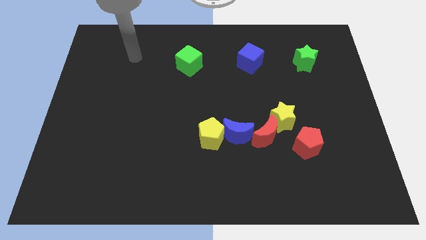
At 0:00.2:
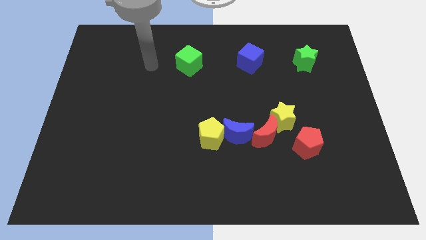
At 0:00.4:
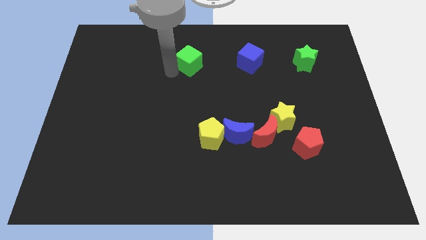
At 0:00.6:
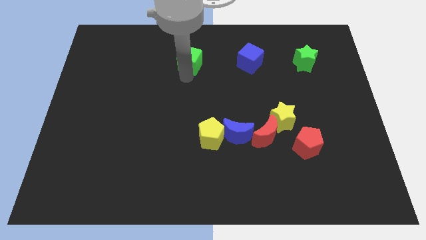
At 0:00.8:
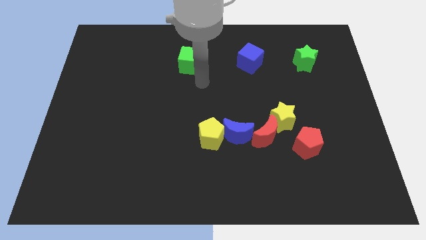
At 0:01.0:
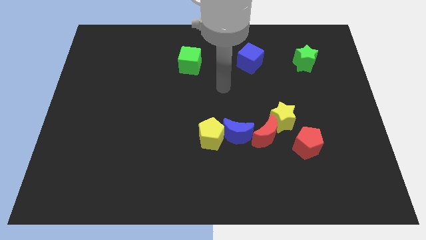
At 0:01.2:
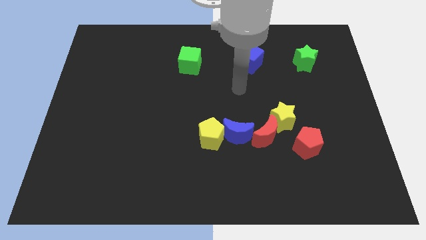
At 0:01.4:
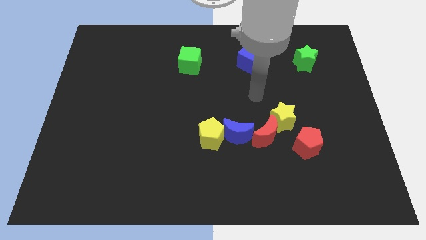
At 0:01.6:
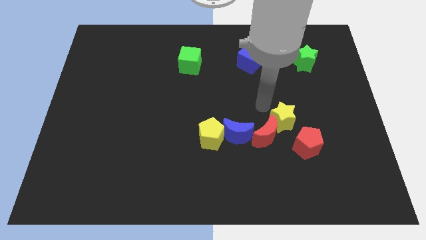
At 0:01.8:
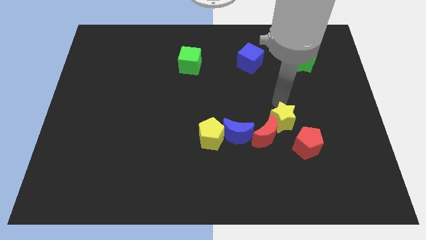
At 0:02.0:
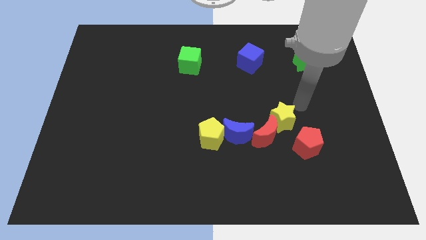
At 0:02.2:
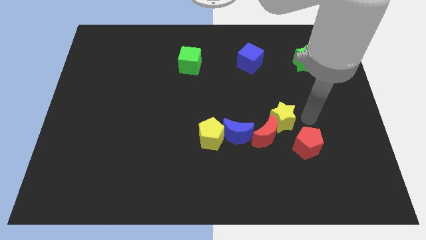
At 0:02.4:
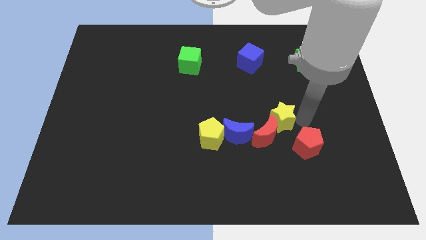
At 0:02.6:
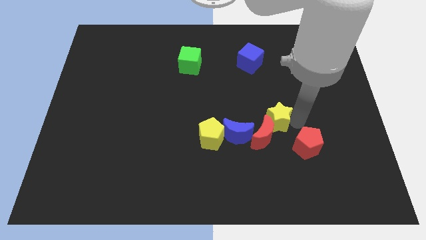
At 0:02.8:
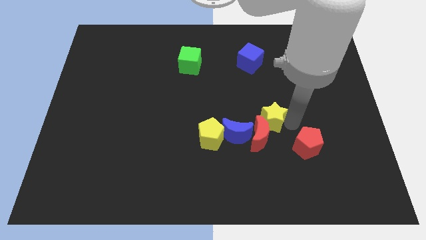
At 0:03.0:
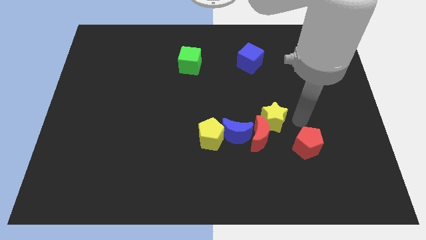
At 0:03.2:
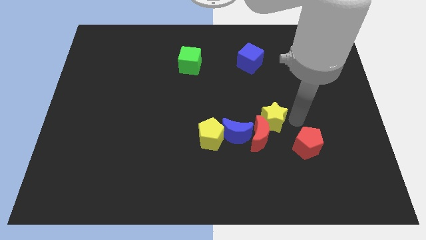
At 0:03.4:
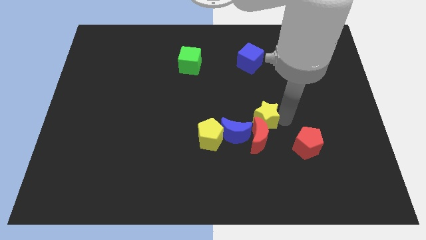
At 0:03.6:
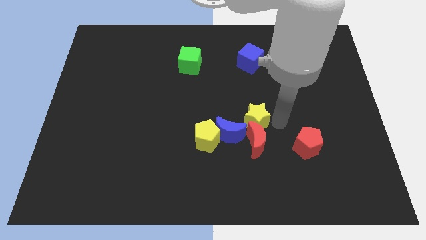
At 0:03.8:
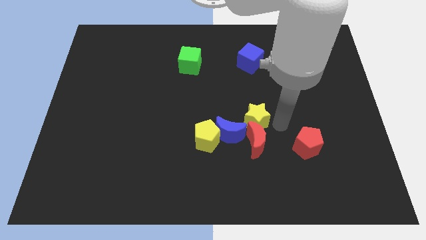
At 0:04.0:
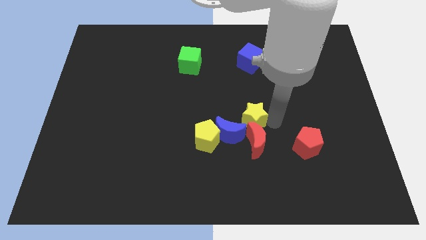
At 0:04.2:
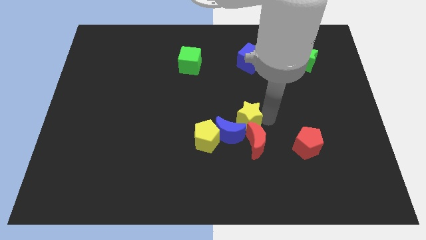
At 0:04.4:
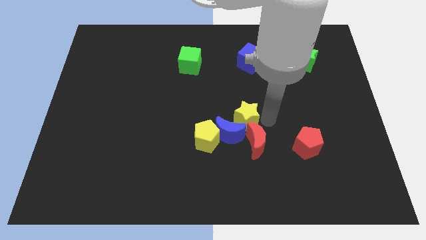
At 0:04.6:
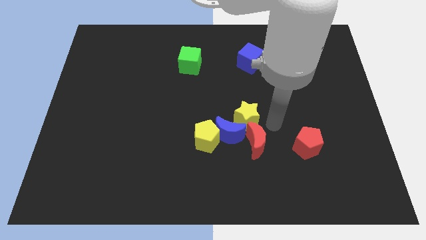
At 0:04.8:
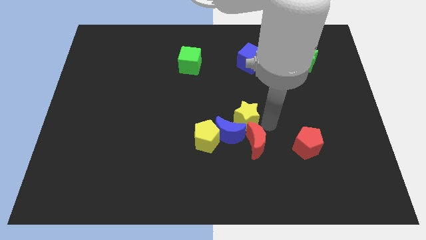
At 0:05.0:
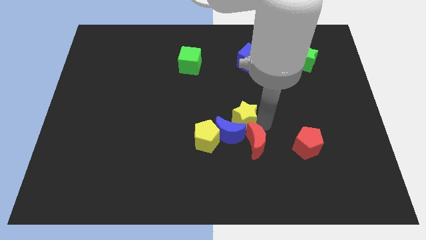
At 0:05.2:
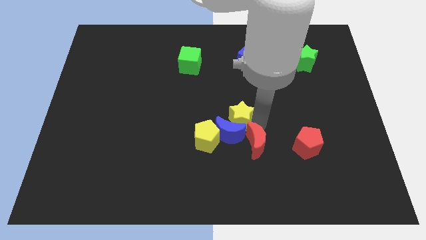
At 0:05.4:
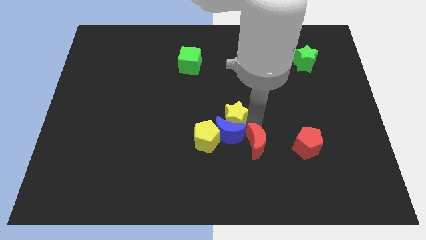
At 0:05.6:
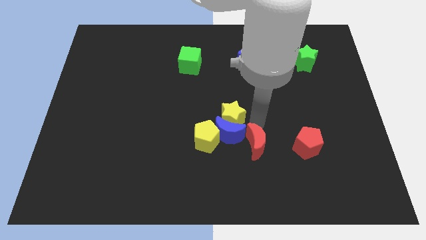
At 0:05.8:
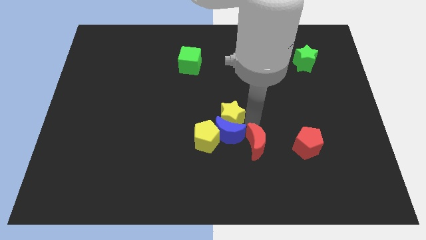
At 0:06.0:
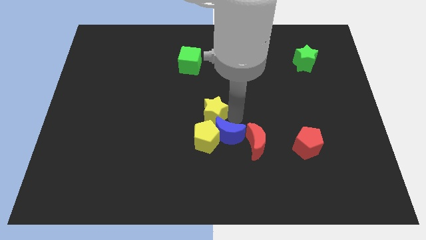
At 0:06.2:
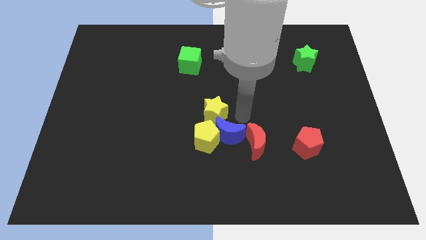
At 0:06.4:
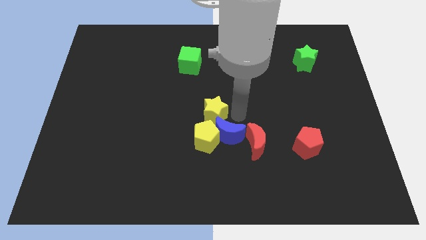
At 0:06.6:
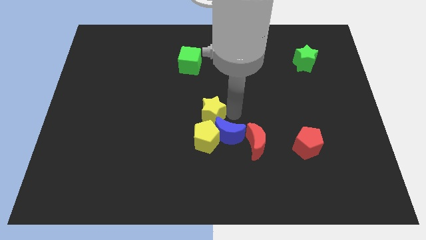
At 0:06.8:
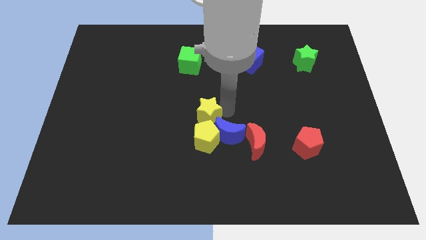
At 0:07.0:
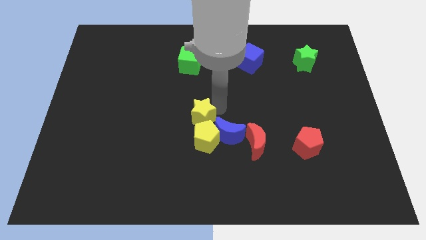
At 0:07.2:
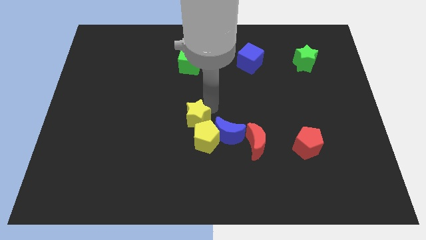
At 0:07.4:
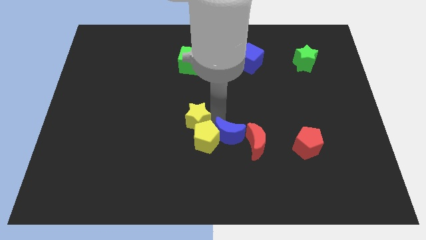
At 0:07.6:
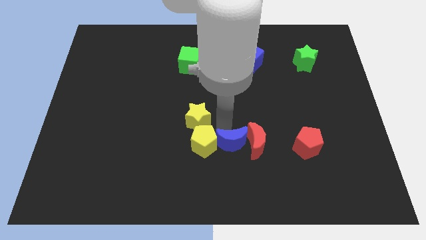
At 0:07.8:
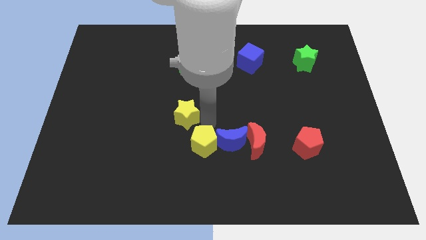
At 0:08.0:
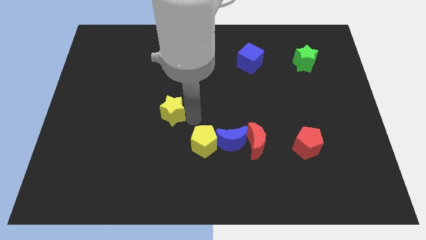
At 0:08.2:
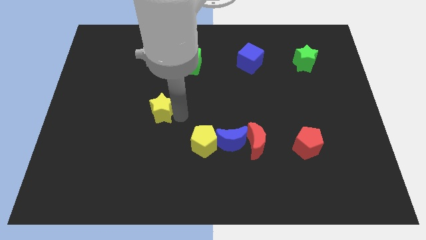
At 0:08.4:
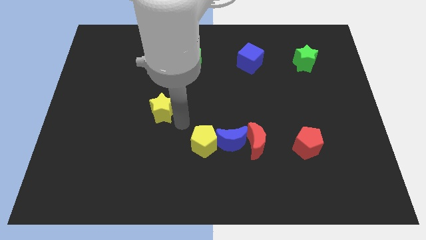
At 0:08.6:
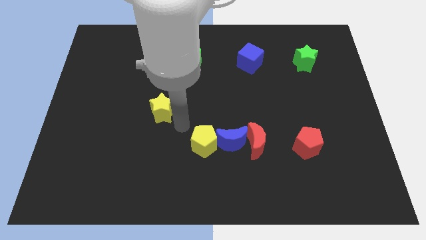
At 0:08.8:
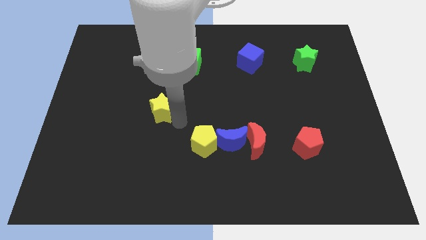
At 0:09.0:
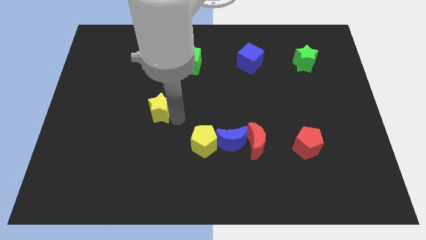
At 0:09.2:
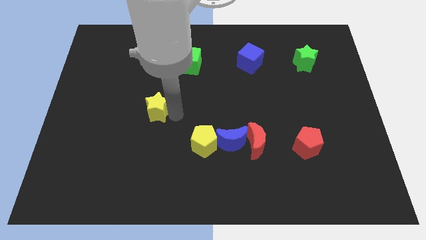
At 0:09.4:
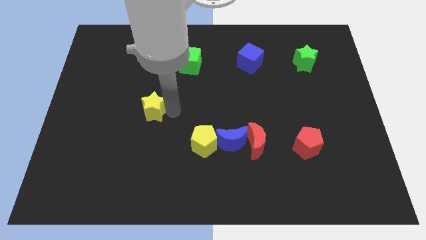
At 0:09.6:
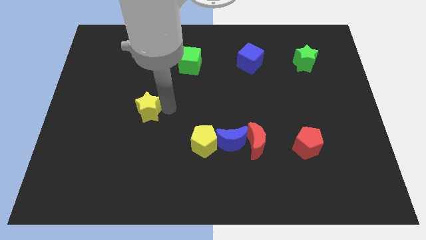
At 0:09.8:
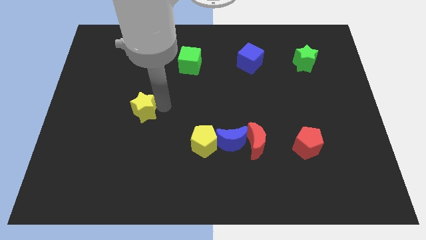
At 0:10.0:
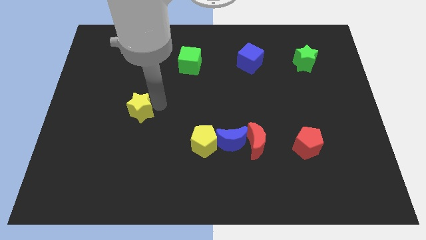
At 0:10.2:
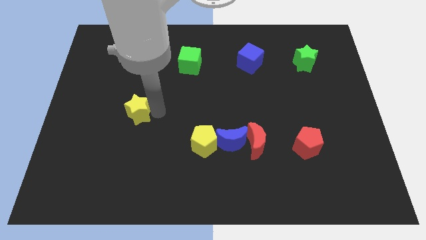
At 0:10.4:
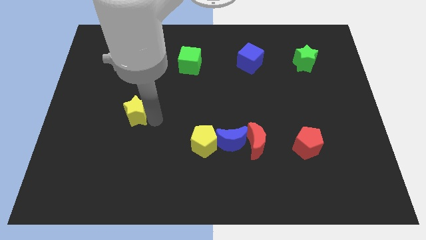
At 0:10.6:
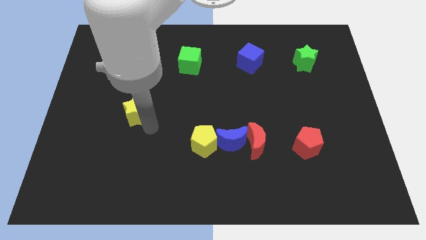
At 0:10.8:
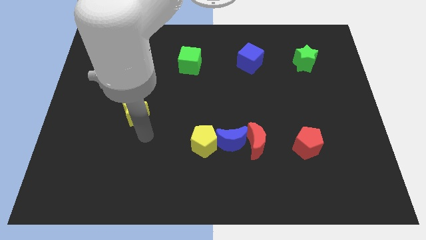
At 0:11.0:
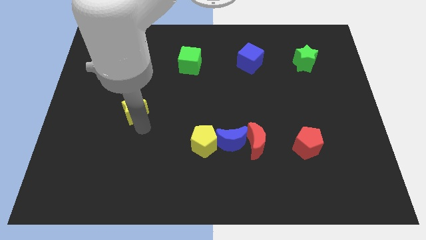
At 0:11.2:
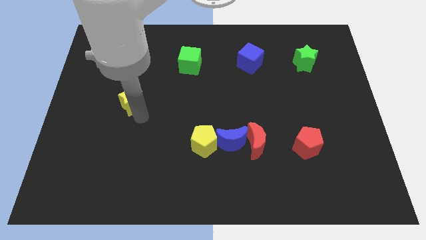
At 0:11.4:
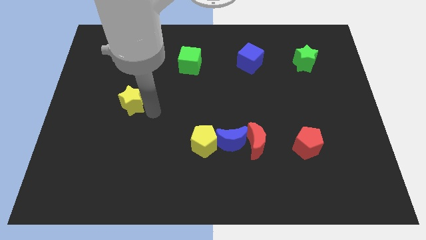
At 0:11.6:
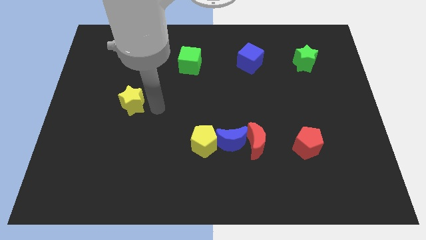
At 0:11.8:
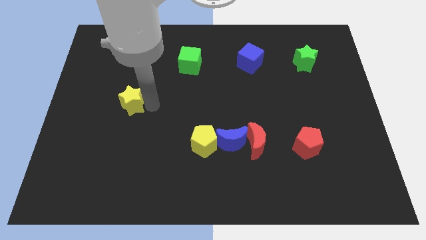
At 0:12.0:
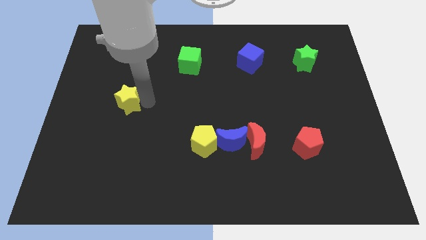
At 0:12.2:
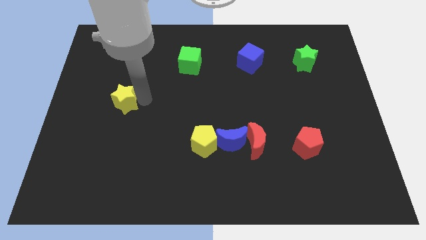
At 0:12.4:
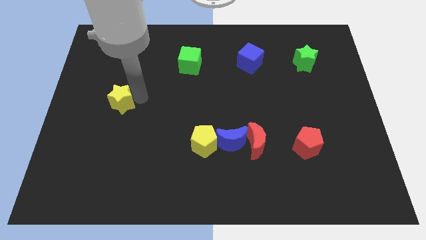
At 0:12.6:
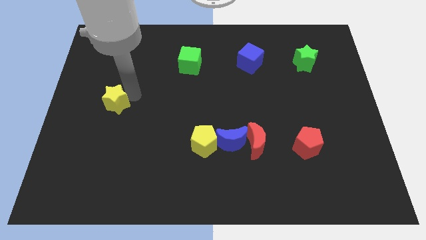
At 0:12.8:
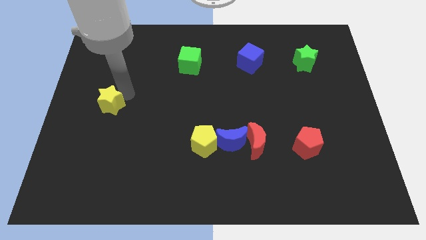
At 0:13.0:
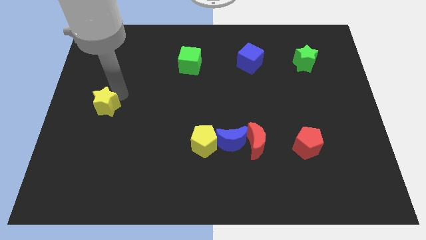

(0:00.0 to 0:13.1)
put the yellow star to the left side of the board
